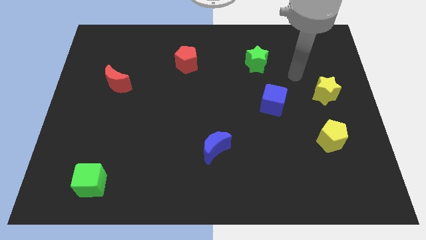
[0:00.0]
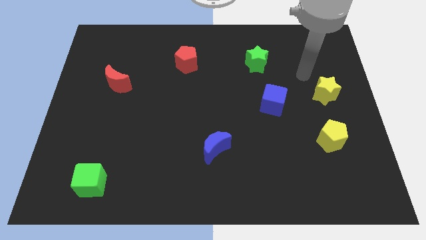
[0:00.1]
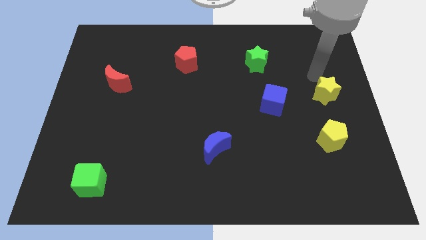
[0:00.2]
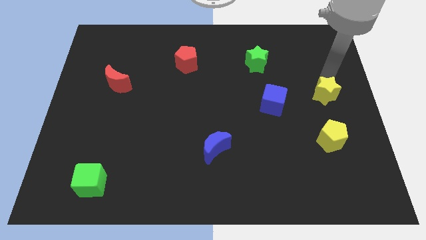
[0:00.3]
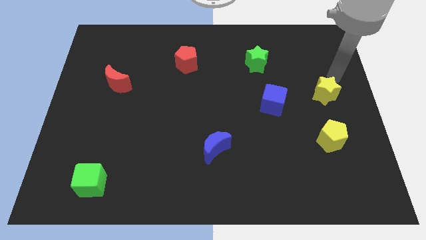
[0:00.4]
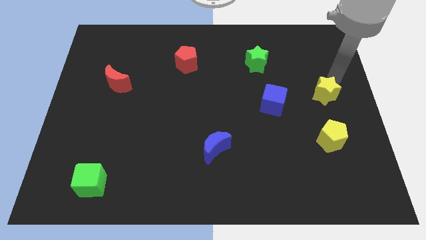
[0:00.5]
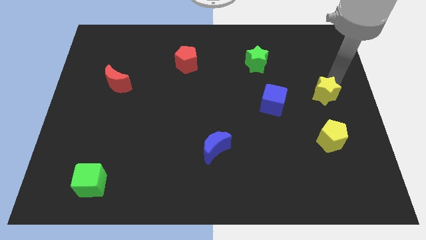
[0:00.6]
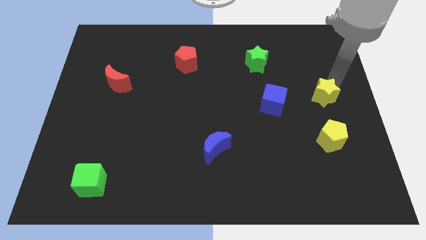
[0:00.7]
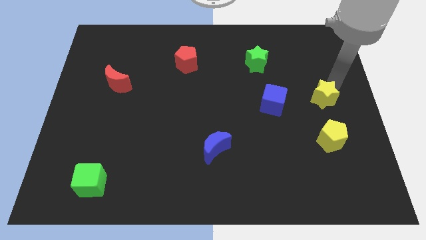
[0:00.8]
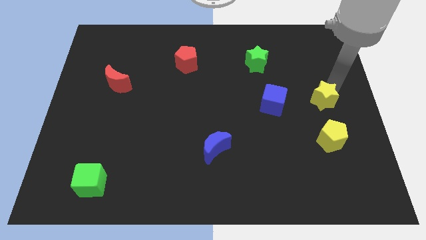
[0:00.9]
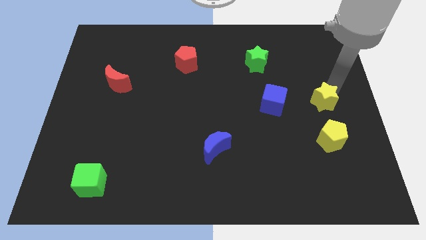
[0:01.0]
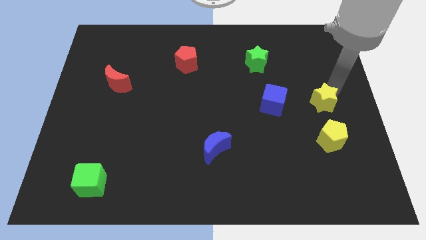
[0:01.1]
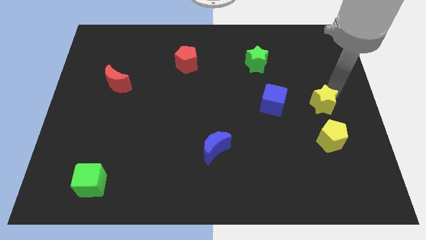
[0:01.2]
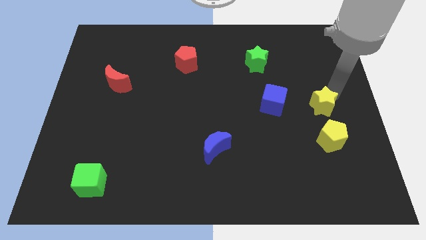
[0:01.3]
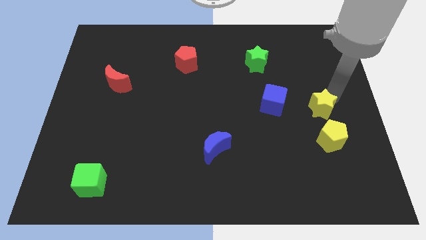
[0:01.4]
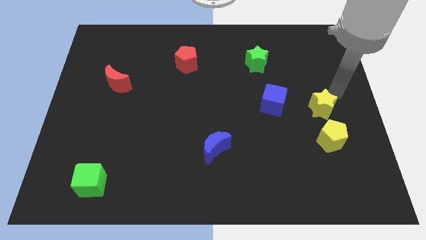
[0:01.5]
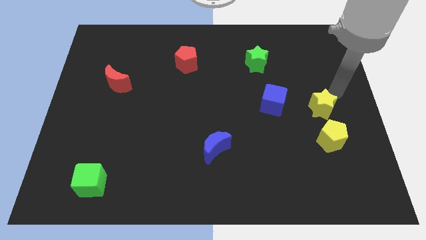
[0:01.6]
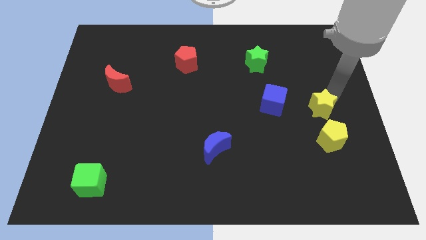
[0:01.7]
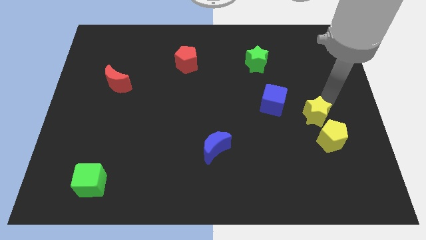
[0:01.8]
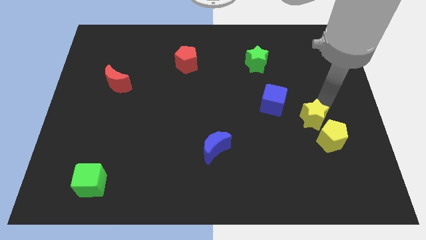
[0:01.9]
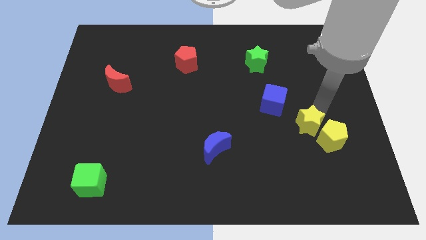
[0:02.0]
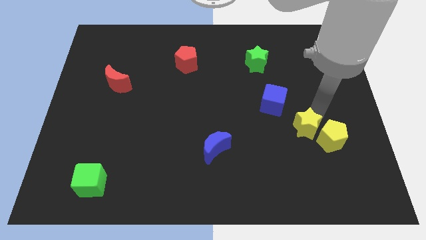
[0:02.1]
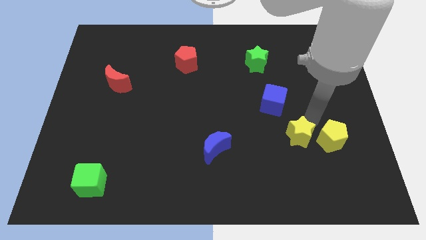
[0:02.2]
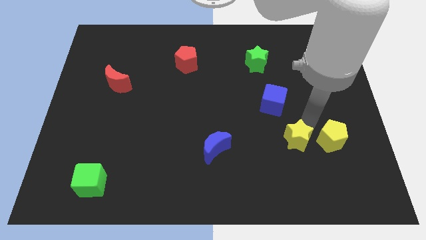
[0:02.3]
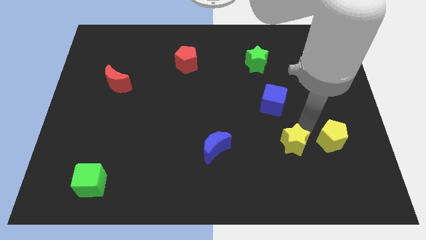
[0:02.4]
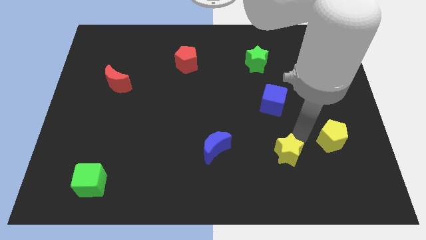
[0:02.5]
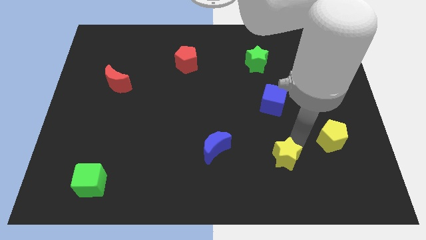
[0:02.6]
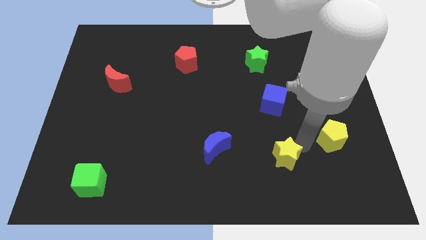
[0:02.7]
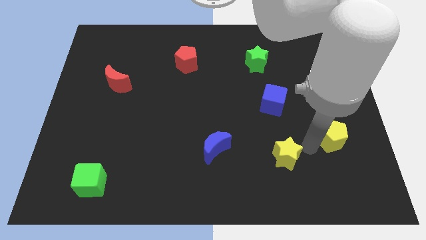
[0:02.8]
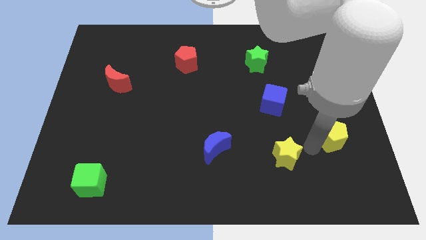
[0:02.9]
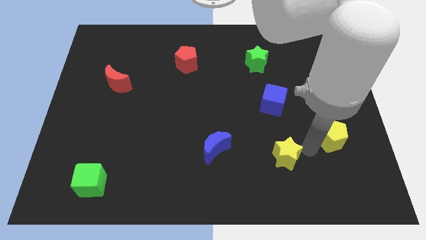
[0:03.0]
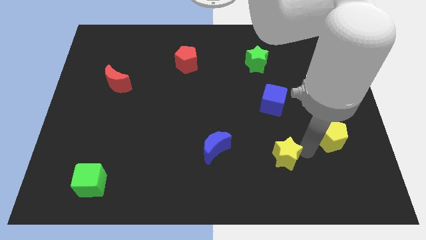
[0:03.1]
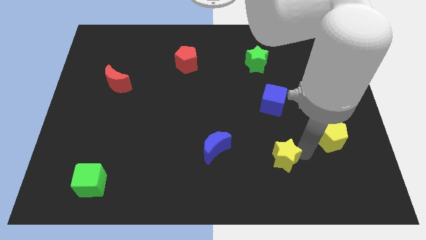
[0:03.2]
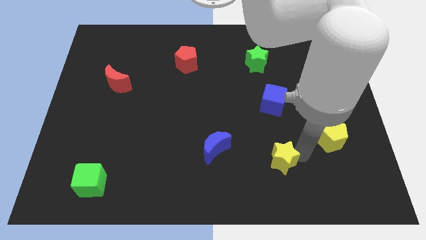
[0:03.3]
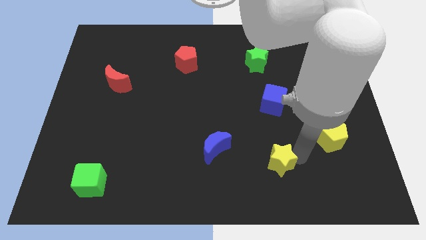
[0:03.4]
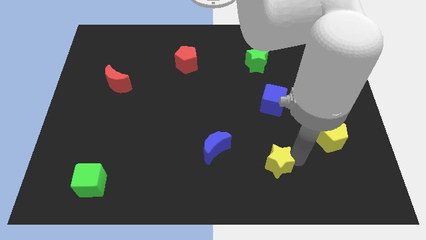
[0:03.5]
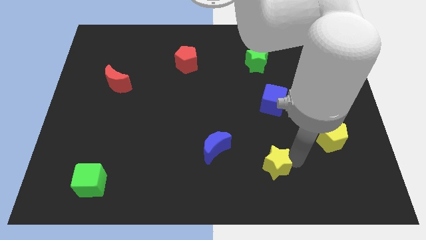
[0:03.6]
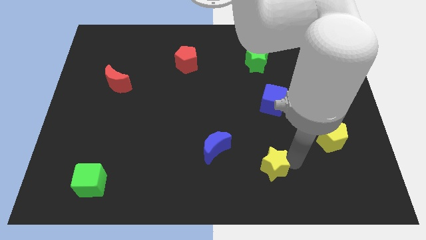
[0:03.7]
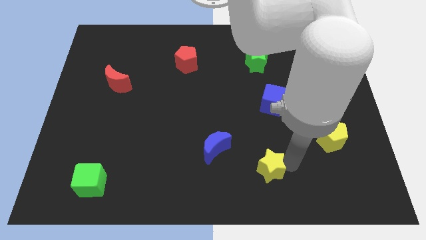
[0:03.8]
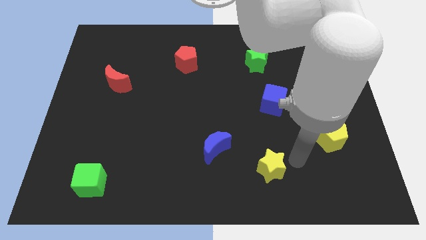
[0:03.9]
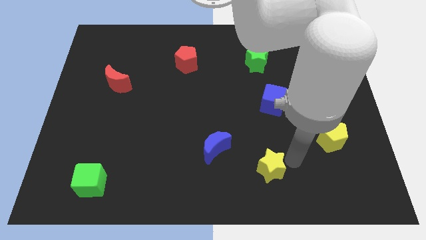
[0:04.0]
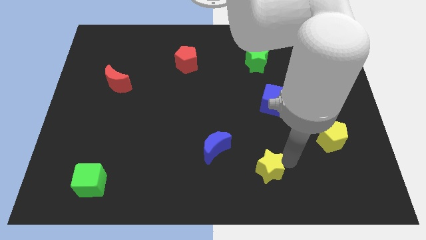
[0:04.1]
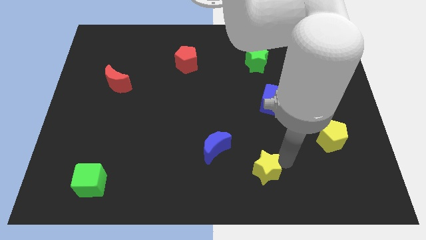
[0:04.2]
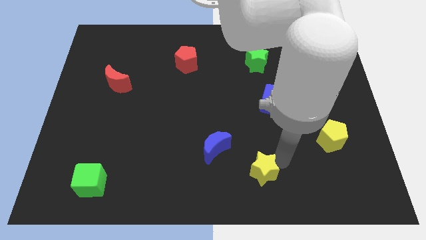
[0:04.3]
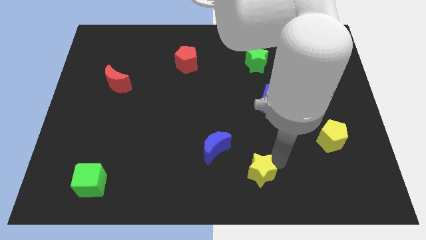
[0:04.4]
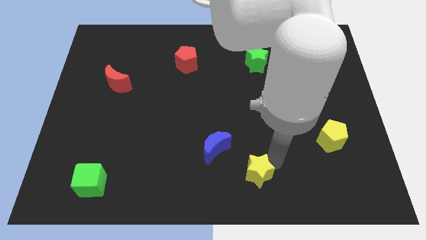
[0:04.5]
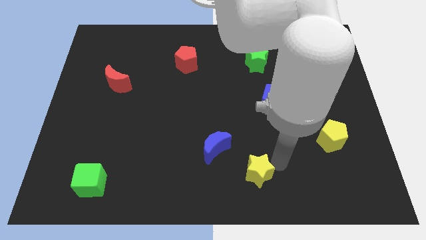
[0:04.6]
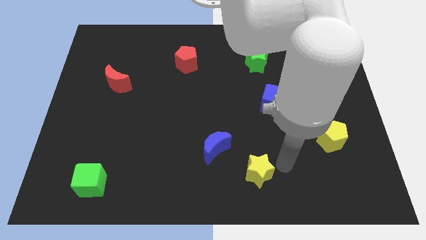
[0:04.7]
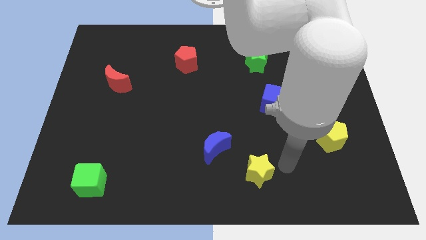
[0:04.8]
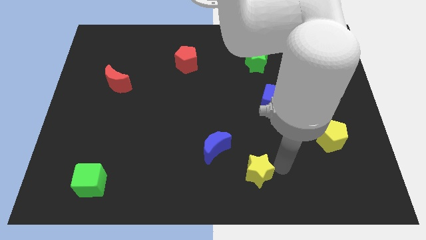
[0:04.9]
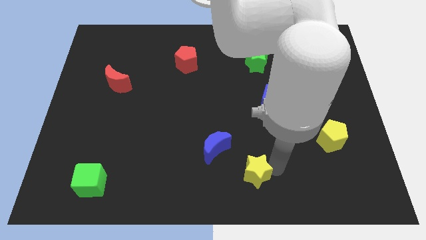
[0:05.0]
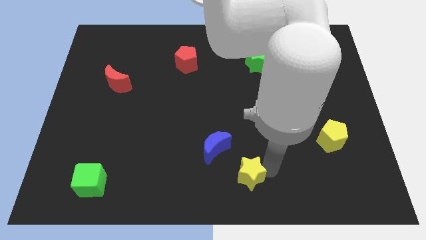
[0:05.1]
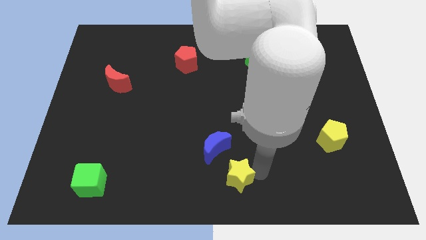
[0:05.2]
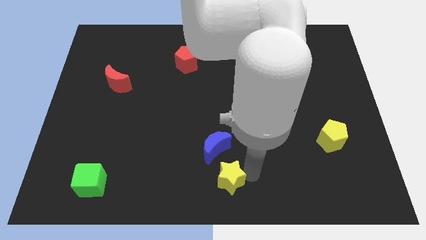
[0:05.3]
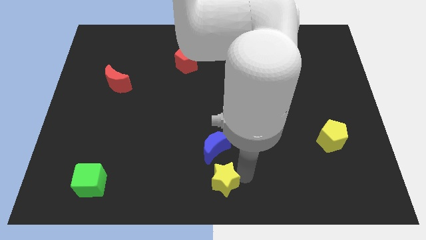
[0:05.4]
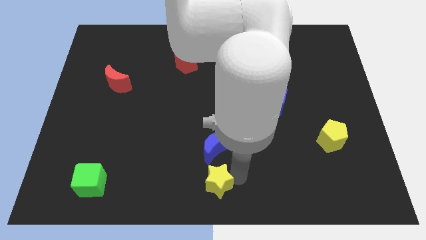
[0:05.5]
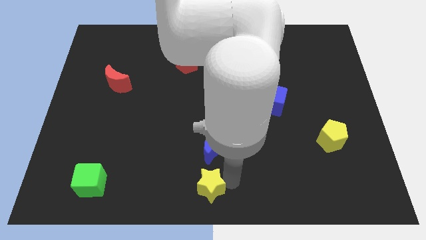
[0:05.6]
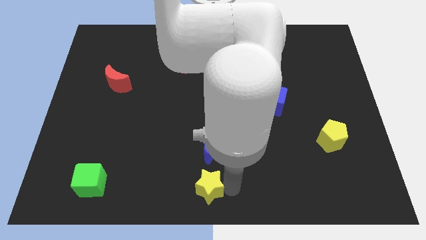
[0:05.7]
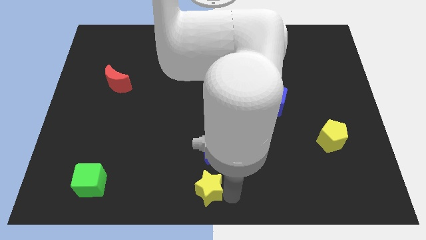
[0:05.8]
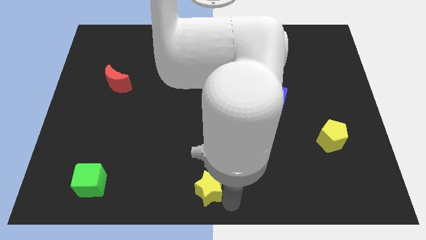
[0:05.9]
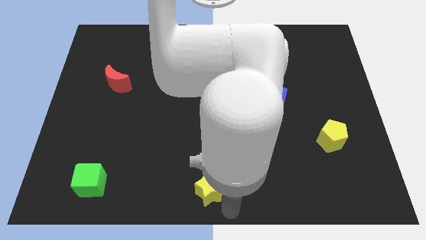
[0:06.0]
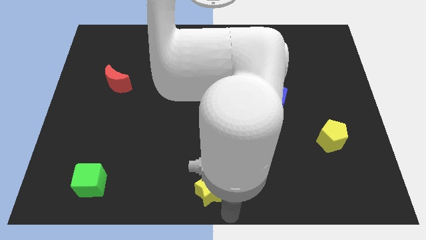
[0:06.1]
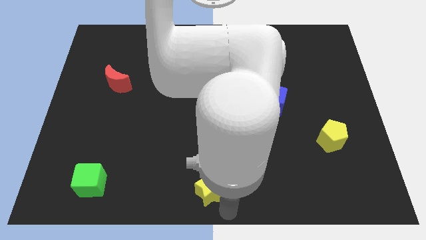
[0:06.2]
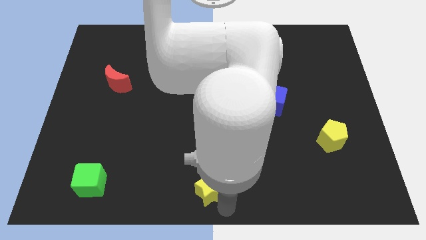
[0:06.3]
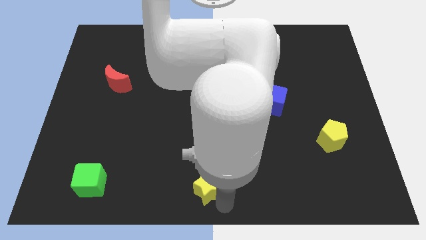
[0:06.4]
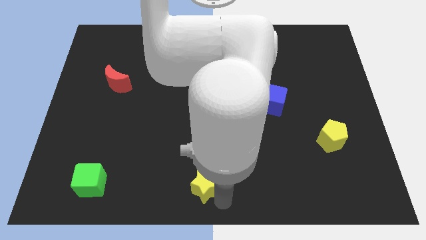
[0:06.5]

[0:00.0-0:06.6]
put the yellow star diagonally down and to the left of the blue moon

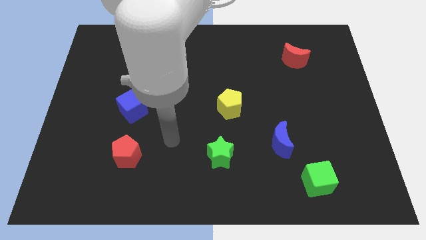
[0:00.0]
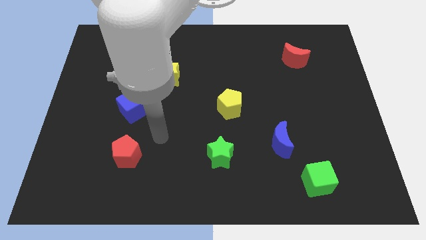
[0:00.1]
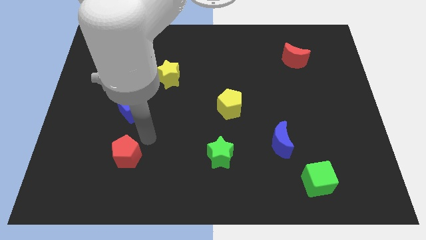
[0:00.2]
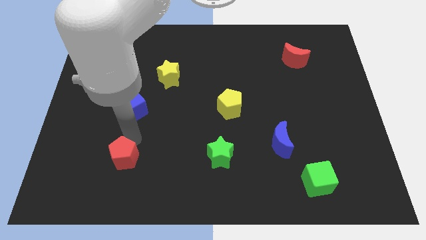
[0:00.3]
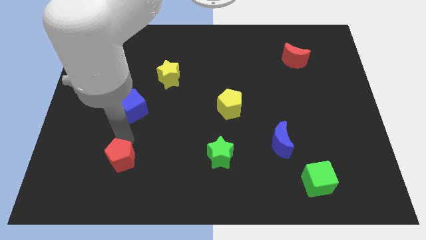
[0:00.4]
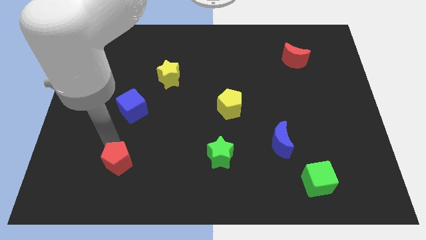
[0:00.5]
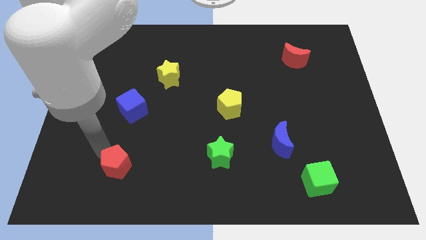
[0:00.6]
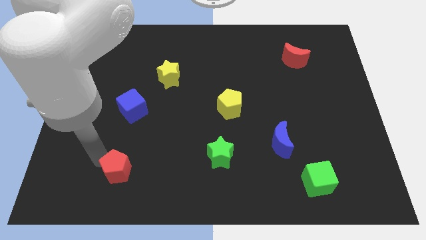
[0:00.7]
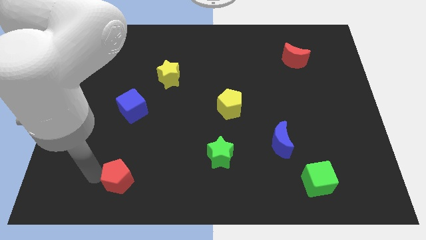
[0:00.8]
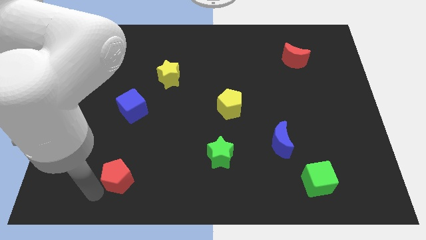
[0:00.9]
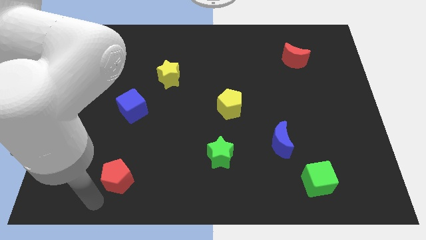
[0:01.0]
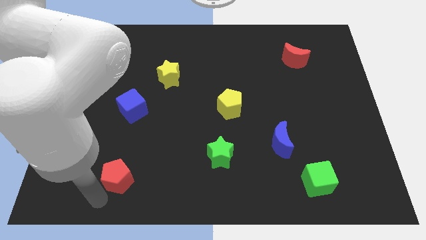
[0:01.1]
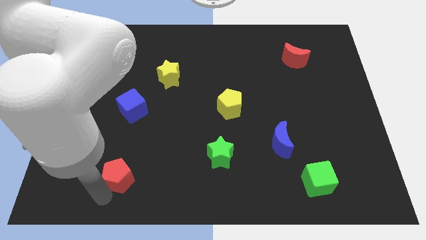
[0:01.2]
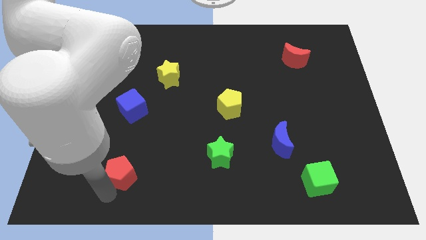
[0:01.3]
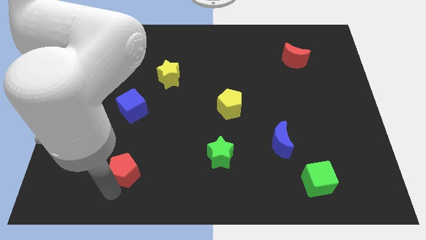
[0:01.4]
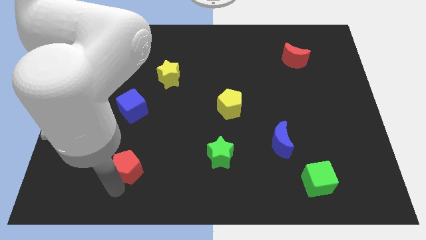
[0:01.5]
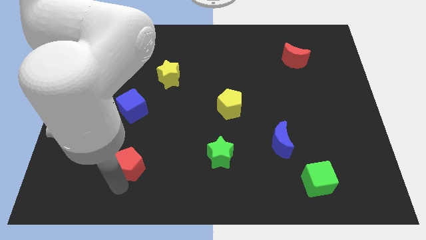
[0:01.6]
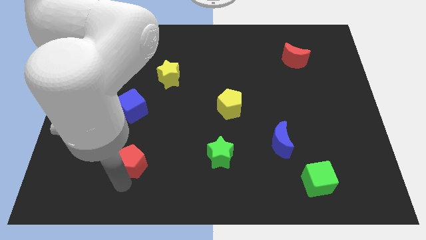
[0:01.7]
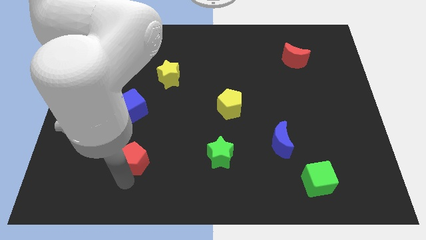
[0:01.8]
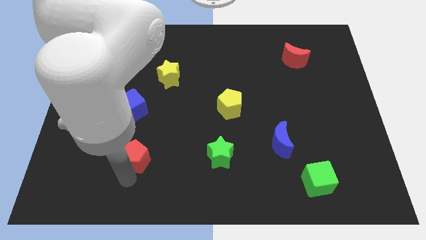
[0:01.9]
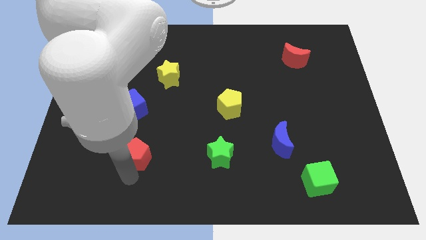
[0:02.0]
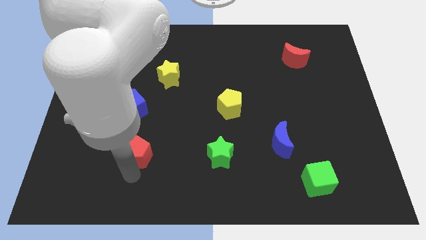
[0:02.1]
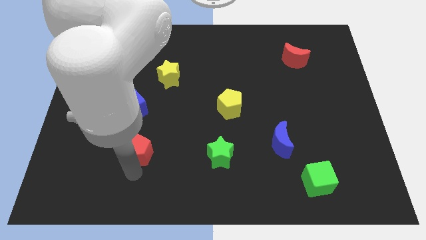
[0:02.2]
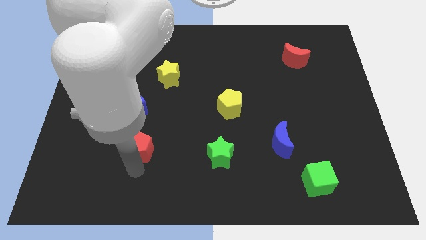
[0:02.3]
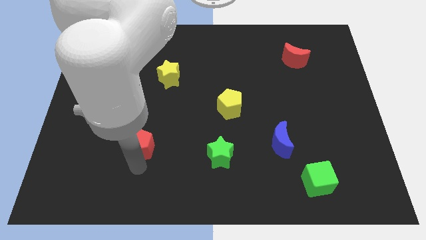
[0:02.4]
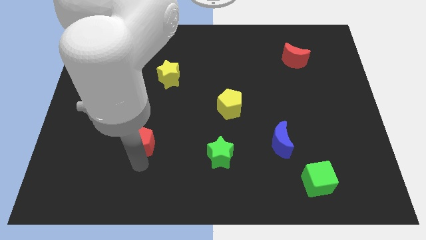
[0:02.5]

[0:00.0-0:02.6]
move the red pentagon diagonally down and to the right of the blue cube
